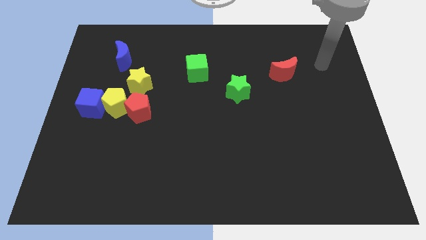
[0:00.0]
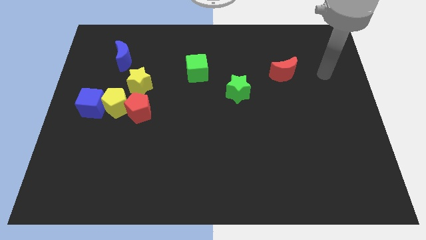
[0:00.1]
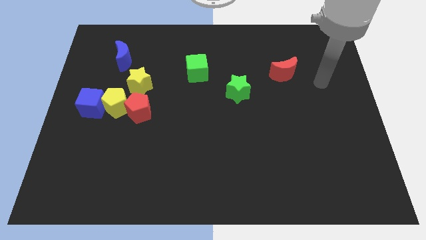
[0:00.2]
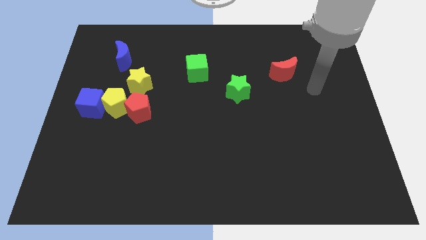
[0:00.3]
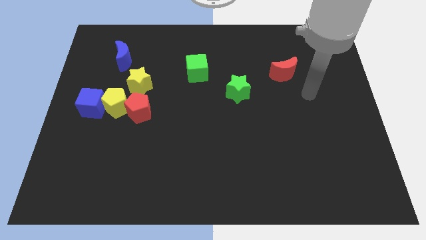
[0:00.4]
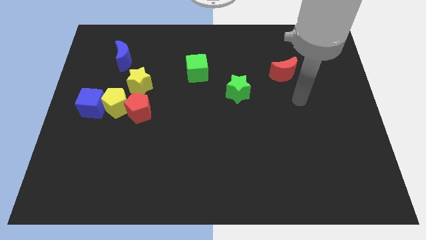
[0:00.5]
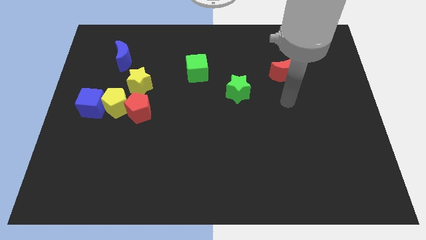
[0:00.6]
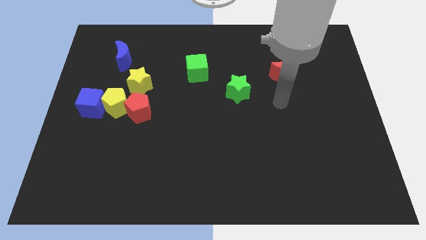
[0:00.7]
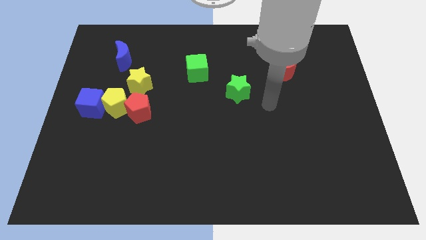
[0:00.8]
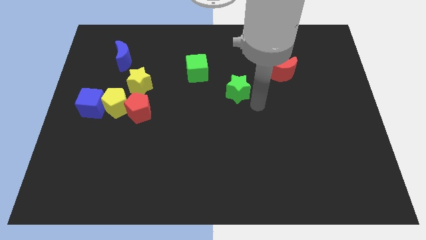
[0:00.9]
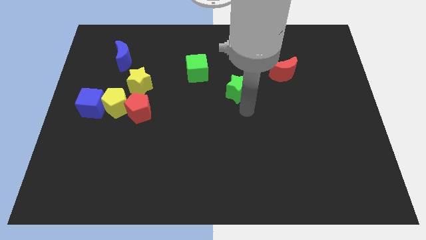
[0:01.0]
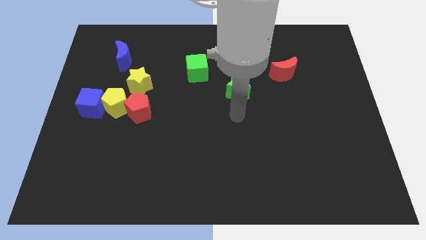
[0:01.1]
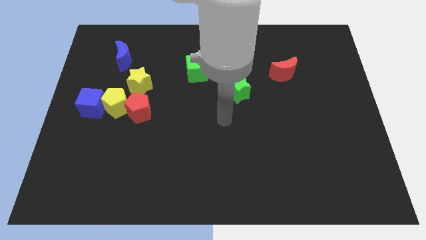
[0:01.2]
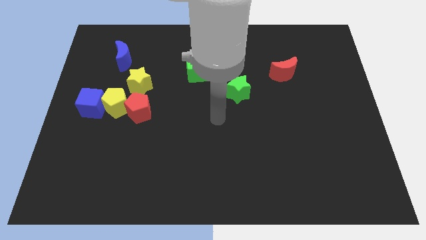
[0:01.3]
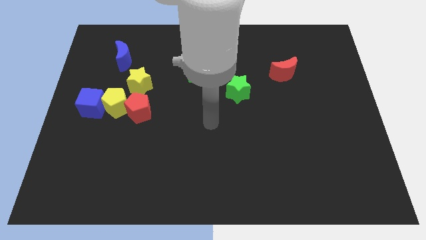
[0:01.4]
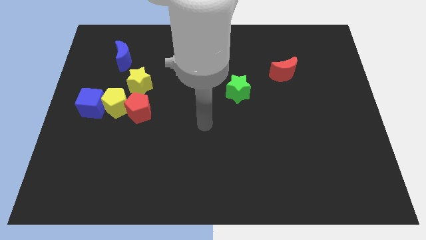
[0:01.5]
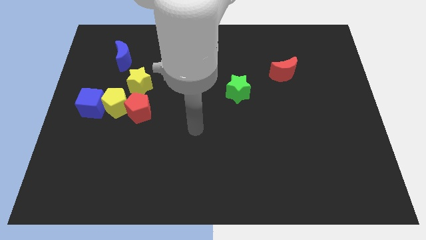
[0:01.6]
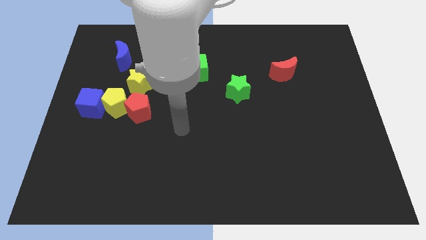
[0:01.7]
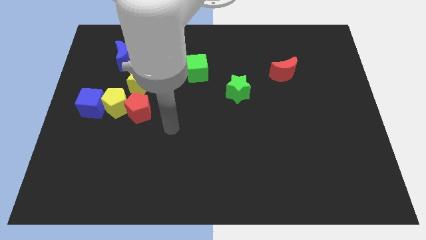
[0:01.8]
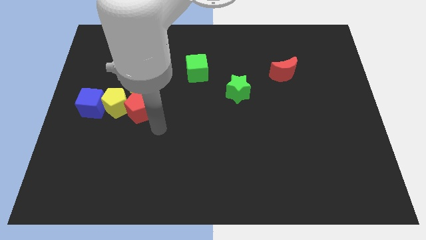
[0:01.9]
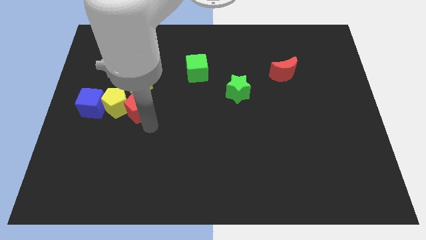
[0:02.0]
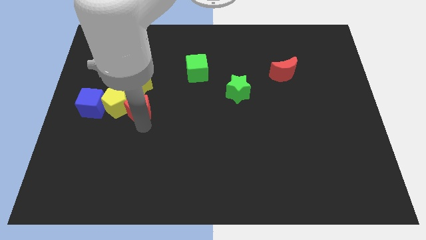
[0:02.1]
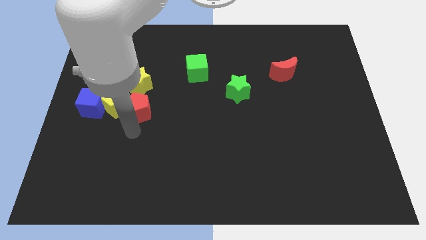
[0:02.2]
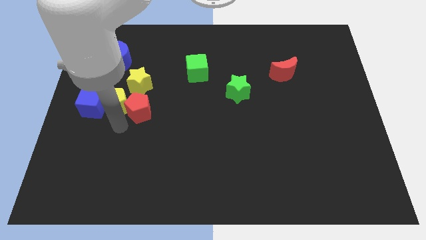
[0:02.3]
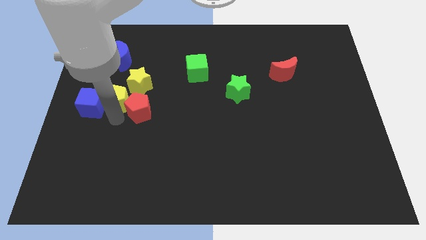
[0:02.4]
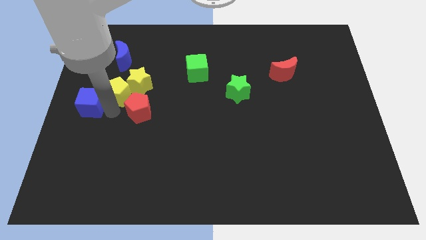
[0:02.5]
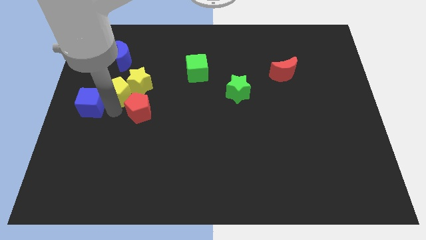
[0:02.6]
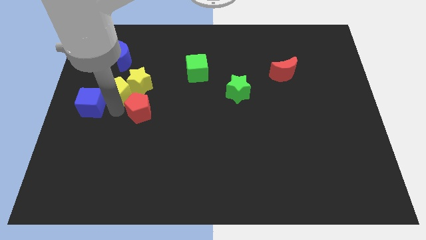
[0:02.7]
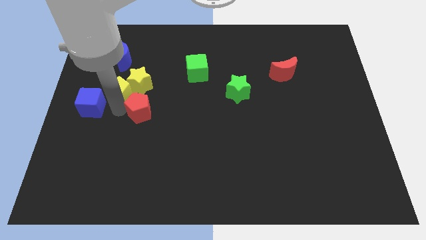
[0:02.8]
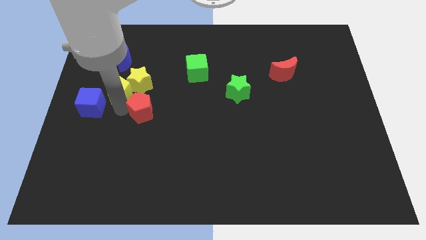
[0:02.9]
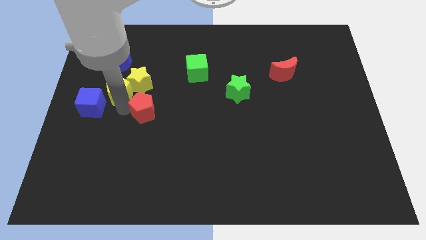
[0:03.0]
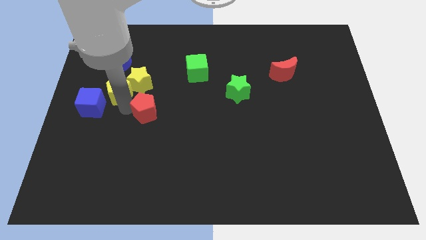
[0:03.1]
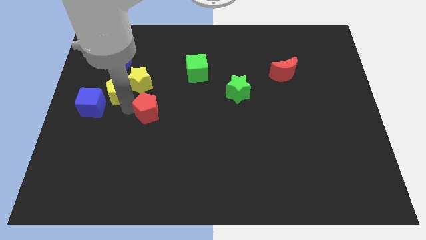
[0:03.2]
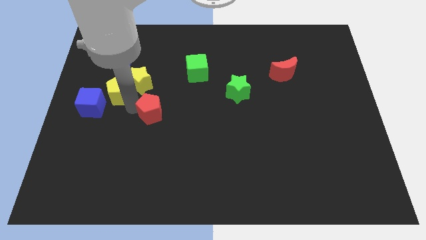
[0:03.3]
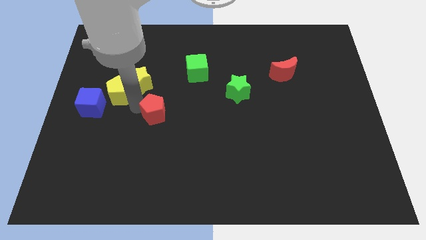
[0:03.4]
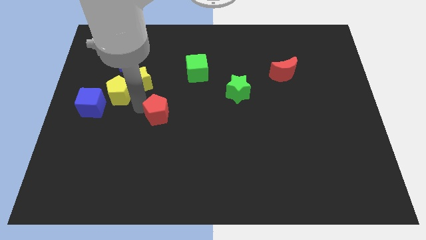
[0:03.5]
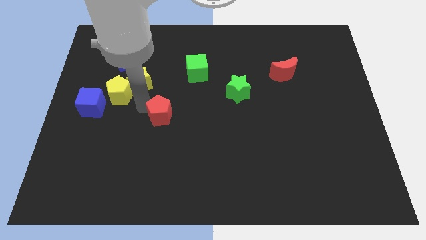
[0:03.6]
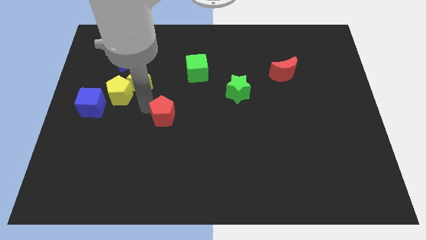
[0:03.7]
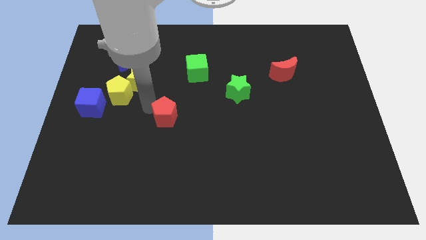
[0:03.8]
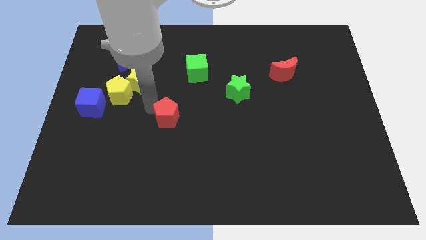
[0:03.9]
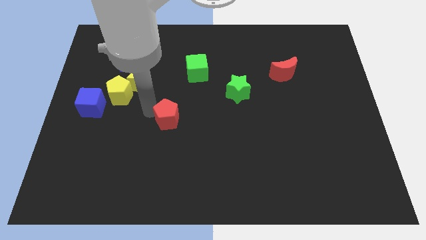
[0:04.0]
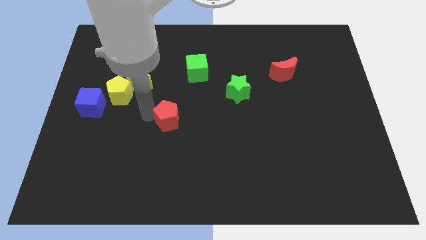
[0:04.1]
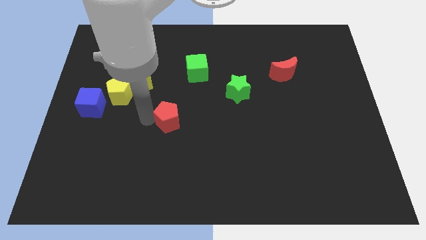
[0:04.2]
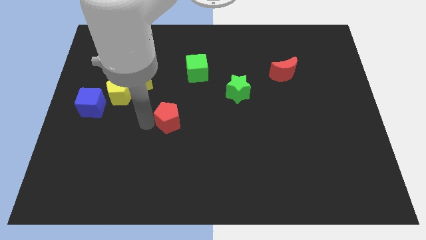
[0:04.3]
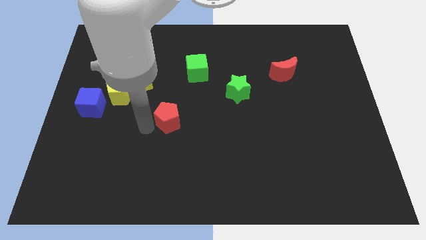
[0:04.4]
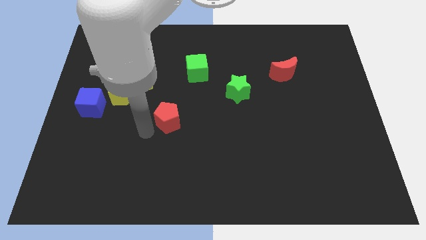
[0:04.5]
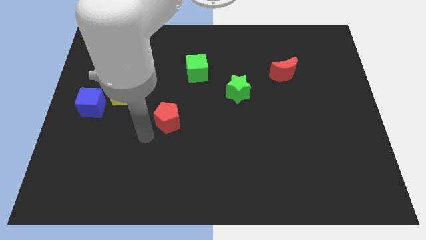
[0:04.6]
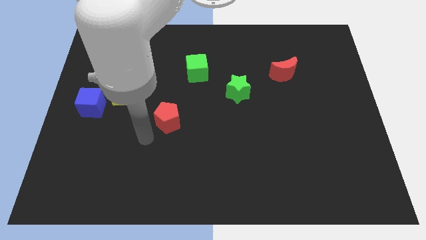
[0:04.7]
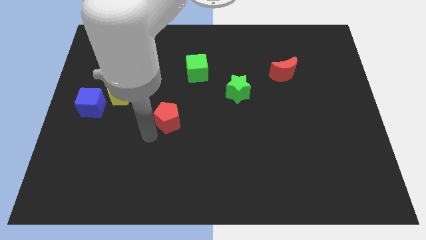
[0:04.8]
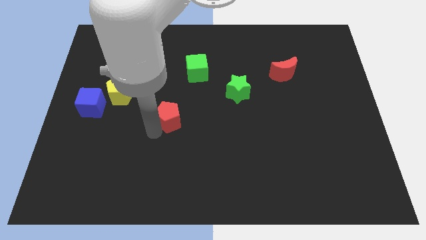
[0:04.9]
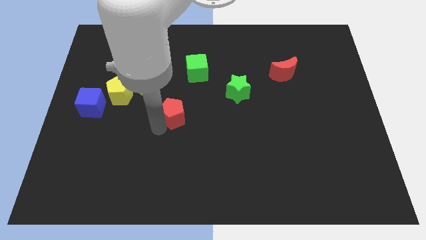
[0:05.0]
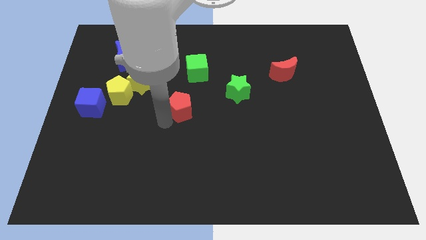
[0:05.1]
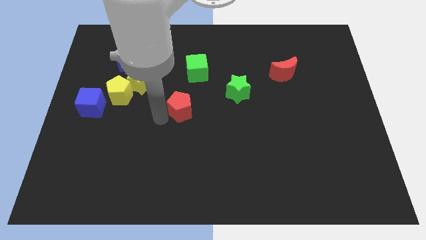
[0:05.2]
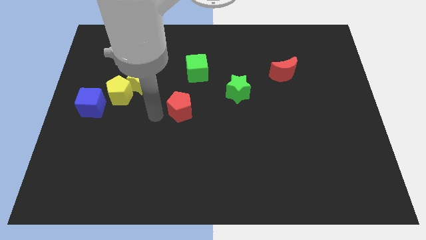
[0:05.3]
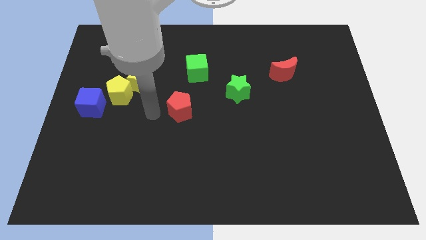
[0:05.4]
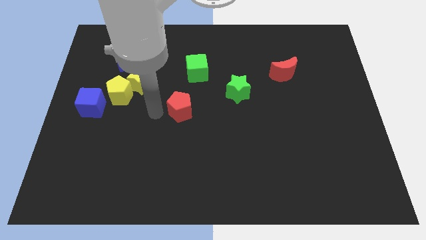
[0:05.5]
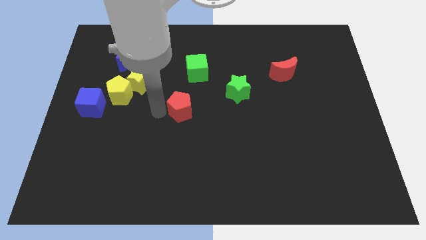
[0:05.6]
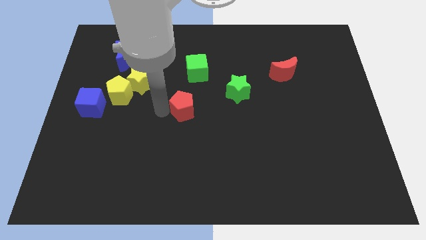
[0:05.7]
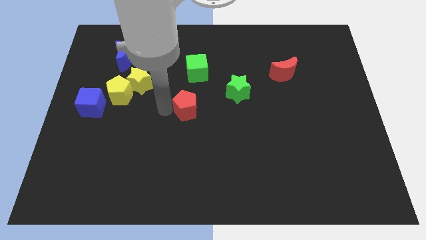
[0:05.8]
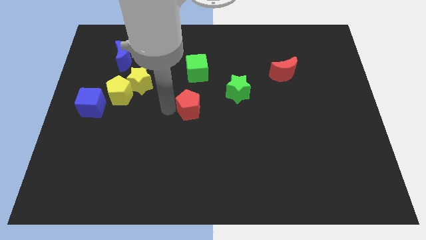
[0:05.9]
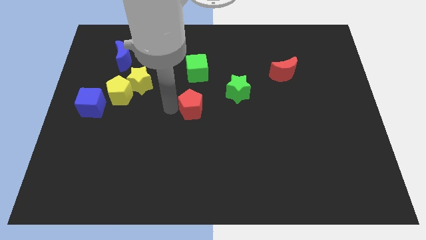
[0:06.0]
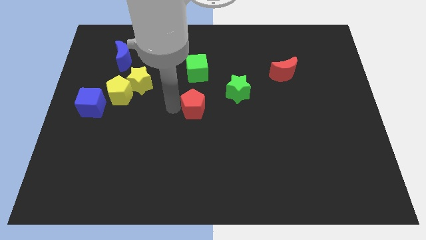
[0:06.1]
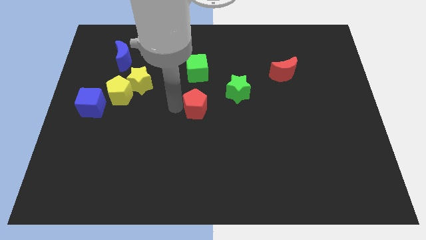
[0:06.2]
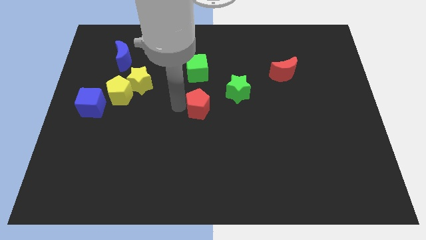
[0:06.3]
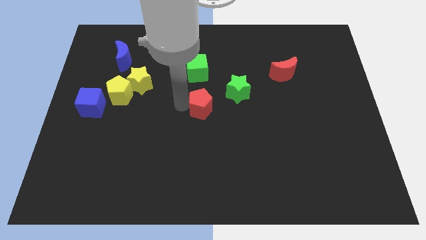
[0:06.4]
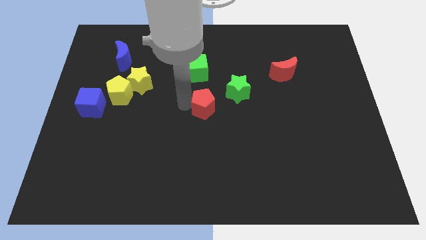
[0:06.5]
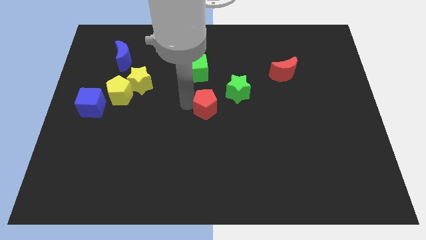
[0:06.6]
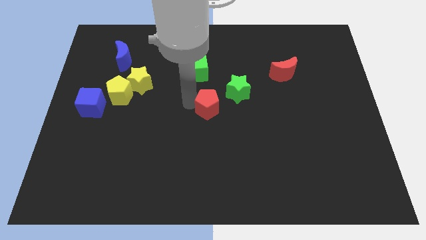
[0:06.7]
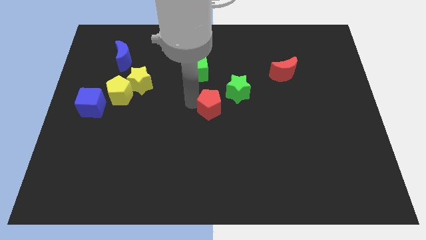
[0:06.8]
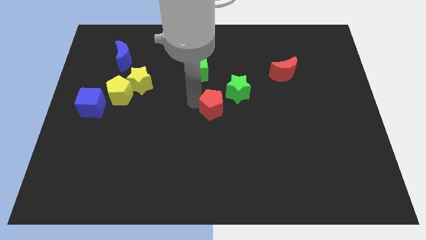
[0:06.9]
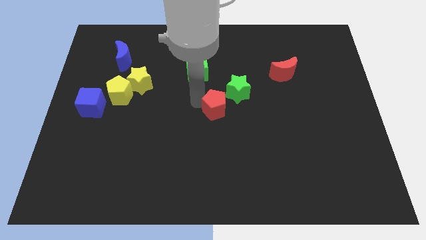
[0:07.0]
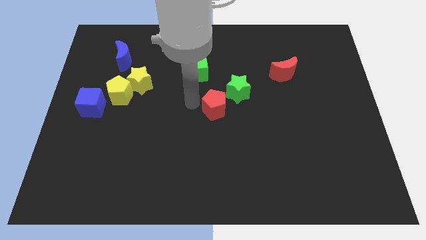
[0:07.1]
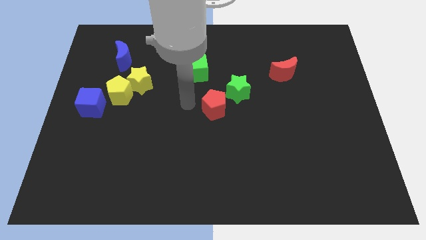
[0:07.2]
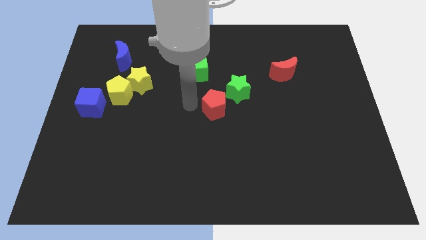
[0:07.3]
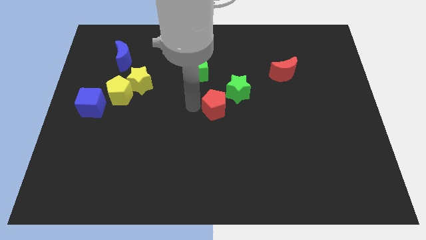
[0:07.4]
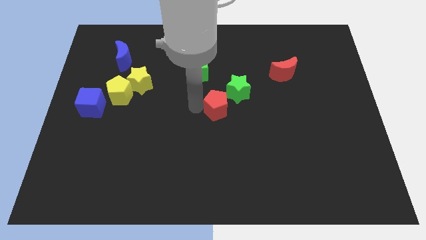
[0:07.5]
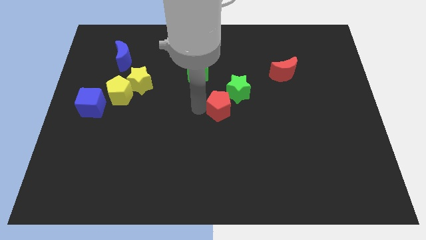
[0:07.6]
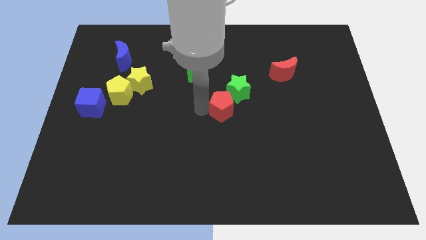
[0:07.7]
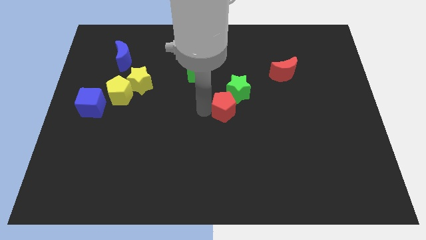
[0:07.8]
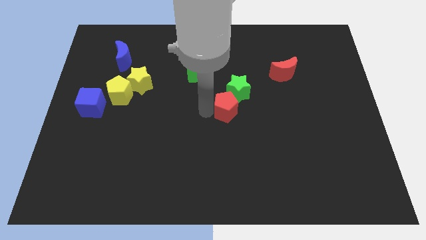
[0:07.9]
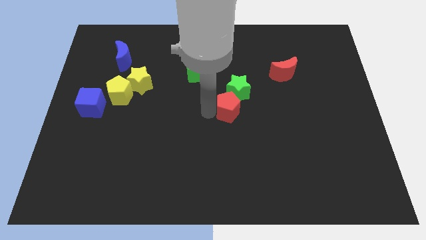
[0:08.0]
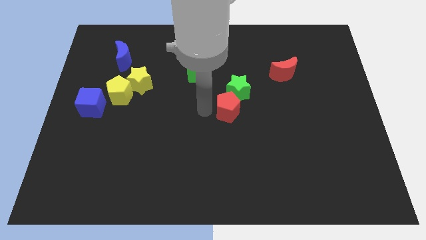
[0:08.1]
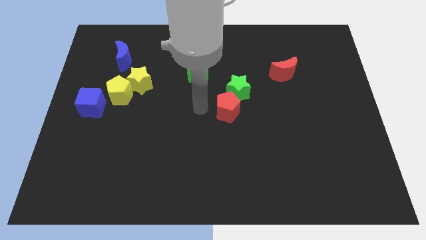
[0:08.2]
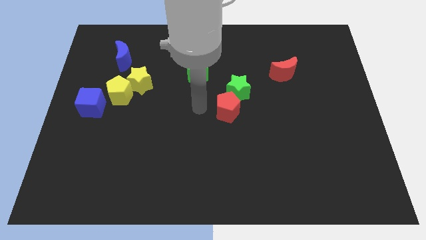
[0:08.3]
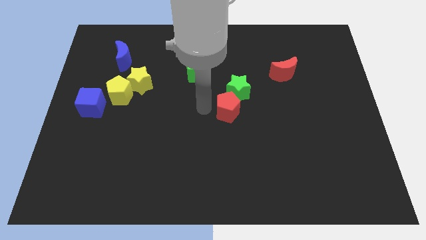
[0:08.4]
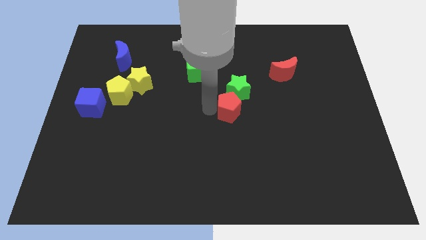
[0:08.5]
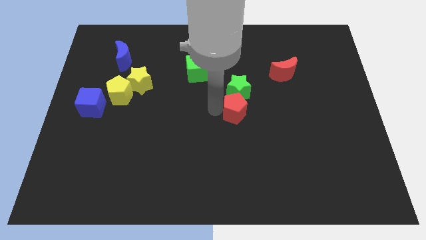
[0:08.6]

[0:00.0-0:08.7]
move the red pentagon to the bottom right of the green star
